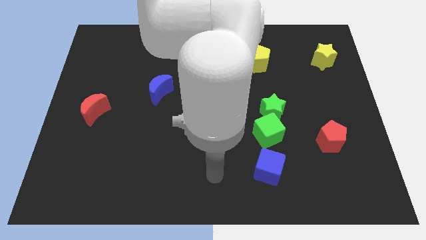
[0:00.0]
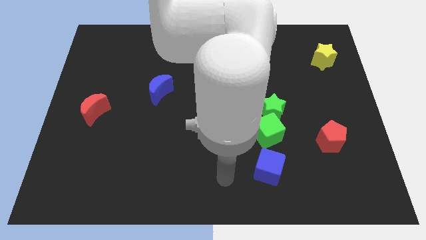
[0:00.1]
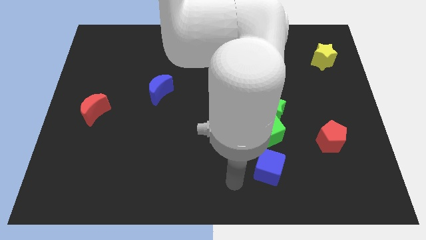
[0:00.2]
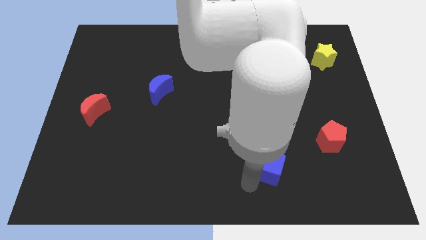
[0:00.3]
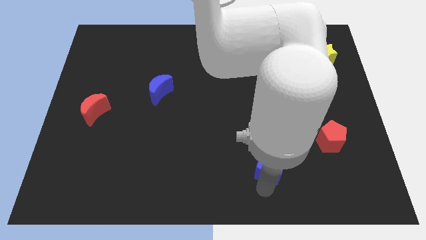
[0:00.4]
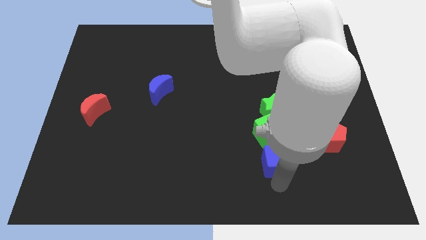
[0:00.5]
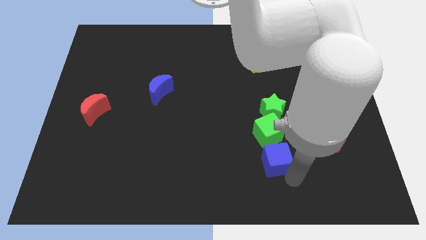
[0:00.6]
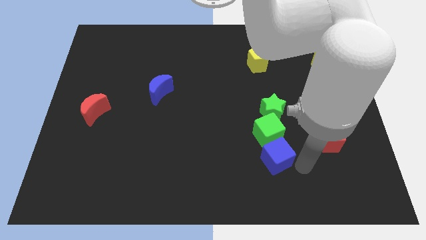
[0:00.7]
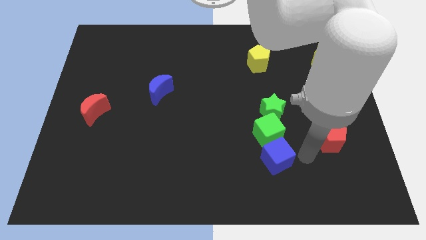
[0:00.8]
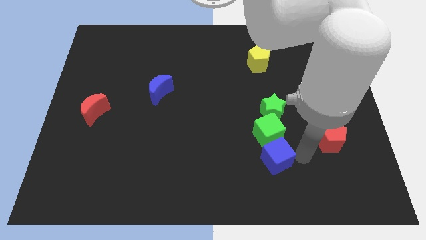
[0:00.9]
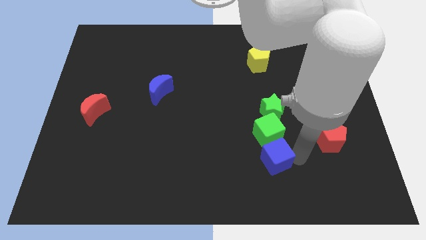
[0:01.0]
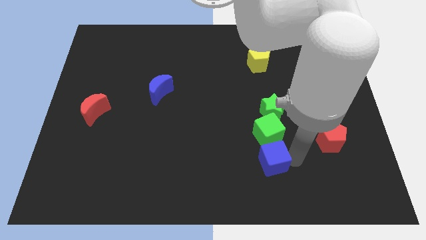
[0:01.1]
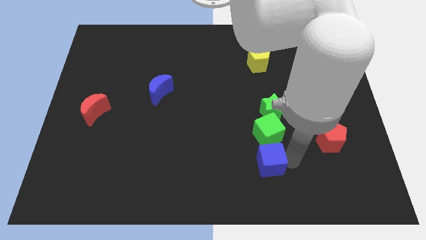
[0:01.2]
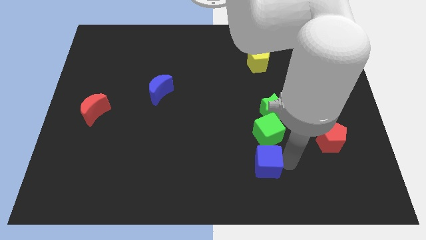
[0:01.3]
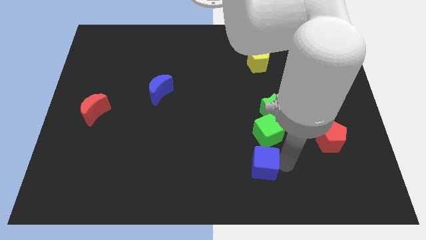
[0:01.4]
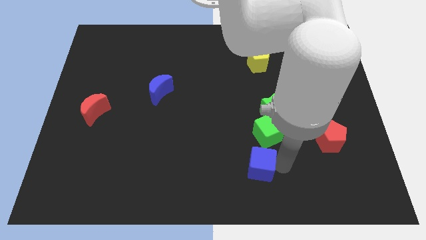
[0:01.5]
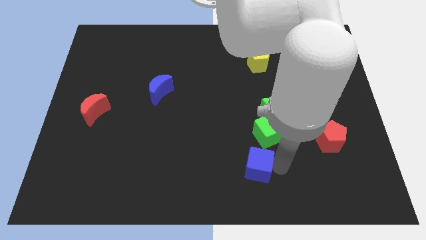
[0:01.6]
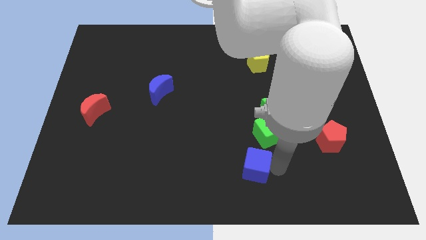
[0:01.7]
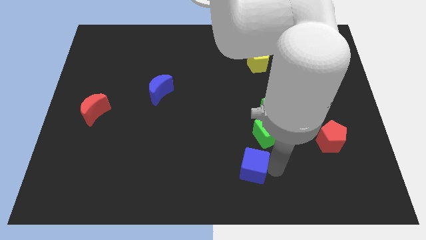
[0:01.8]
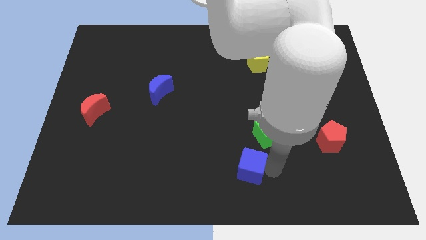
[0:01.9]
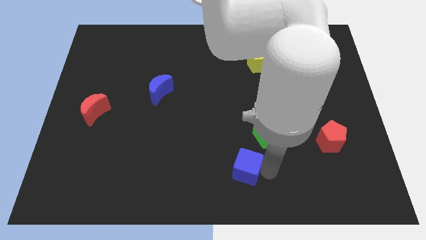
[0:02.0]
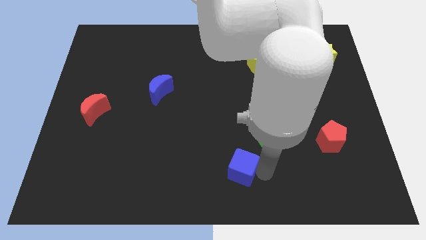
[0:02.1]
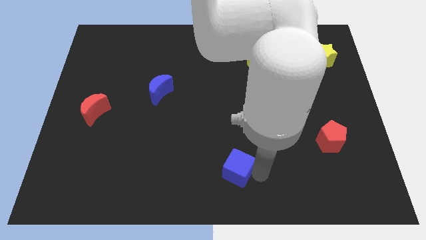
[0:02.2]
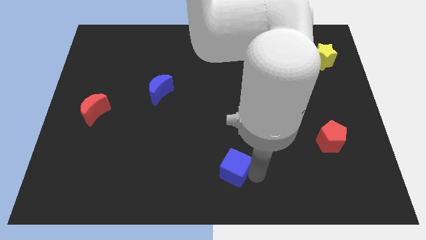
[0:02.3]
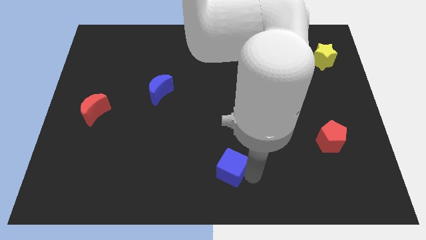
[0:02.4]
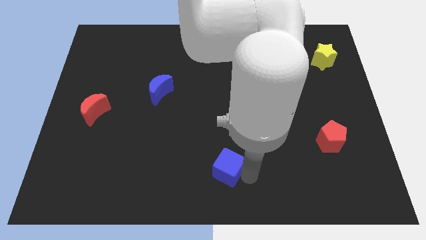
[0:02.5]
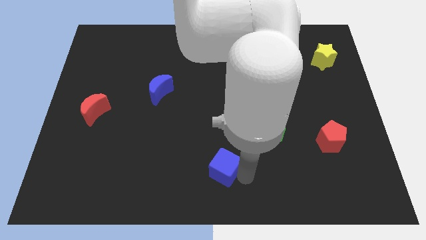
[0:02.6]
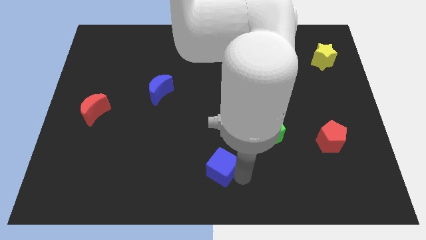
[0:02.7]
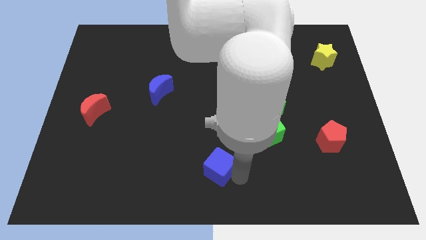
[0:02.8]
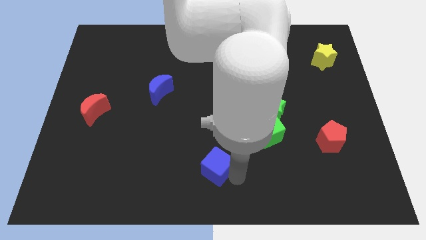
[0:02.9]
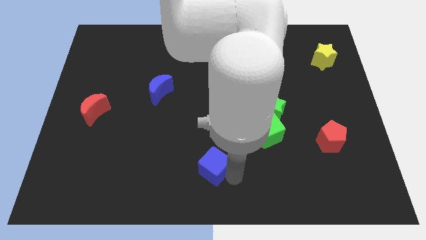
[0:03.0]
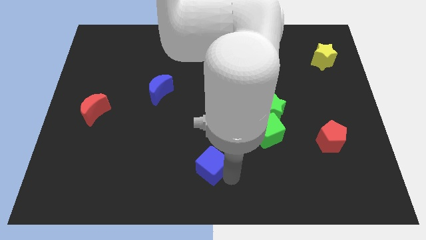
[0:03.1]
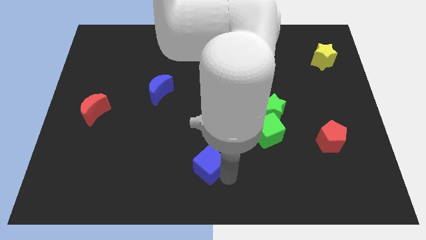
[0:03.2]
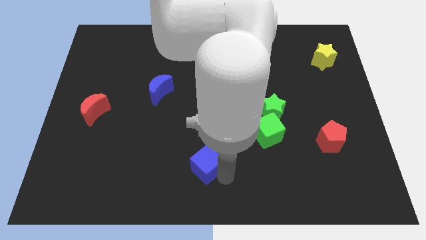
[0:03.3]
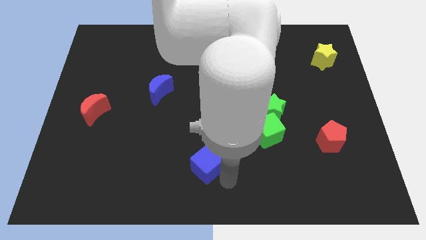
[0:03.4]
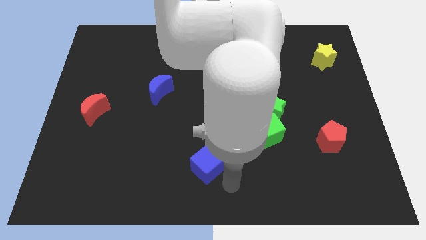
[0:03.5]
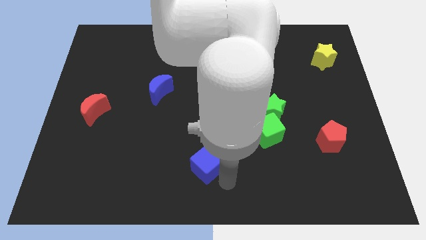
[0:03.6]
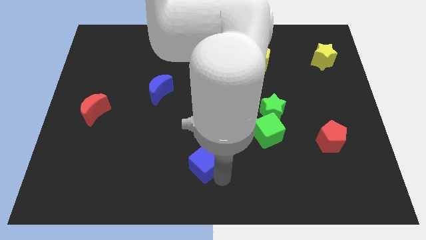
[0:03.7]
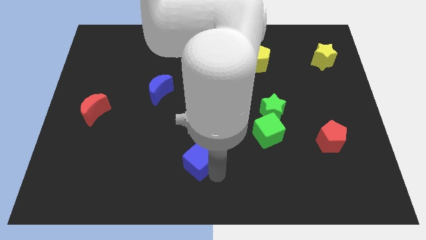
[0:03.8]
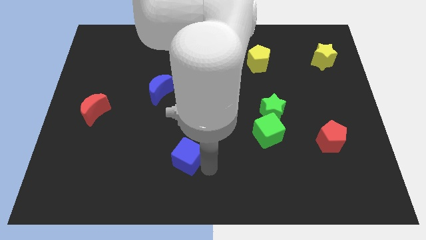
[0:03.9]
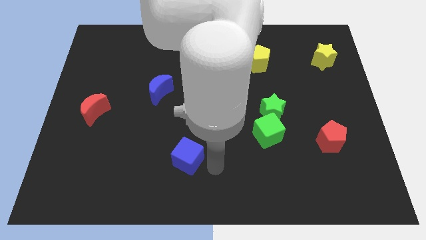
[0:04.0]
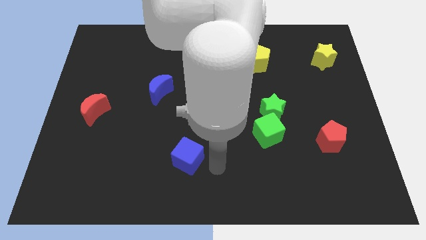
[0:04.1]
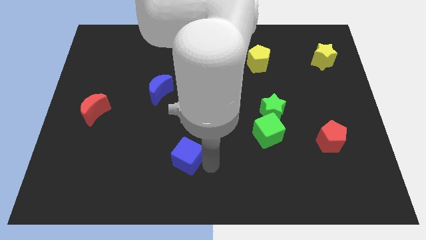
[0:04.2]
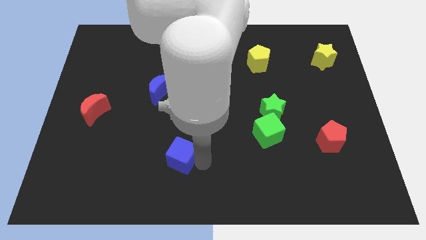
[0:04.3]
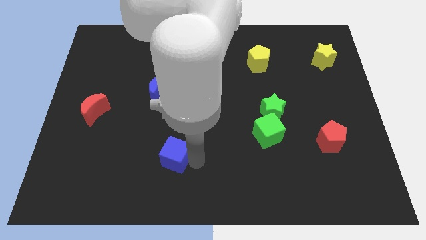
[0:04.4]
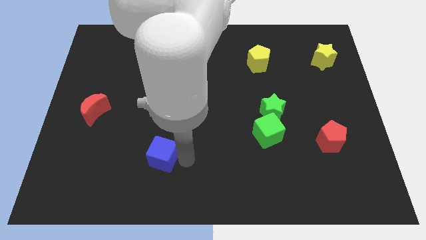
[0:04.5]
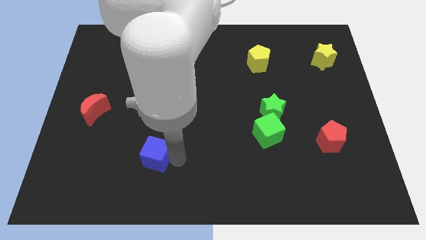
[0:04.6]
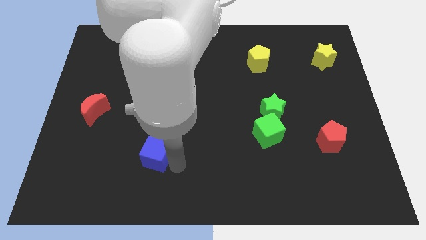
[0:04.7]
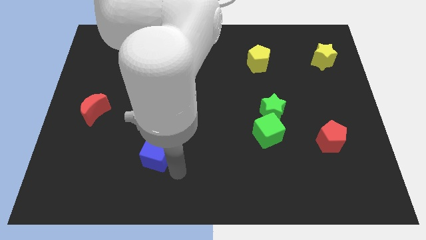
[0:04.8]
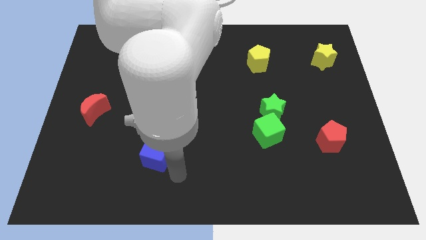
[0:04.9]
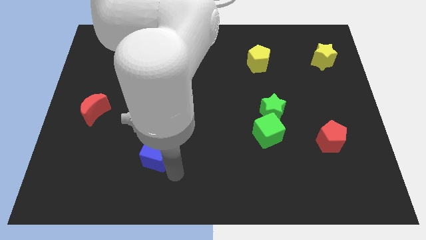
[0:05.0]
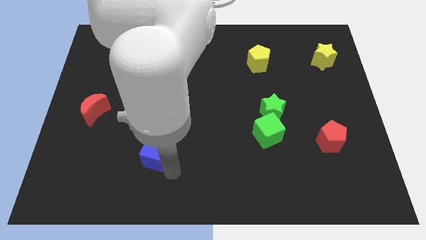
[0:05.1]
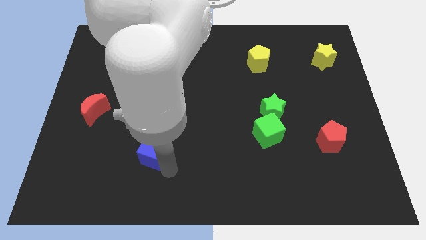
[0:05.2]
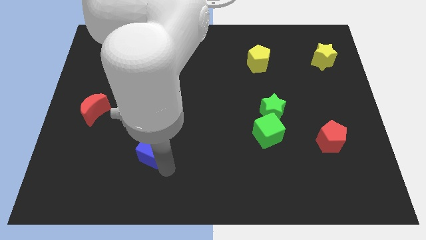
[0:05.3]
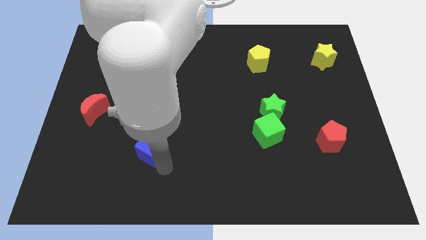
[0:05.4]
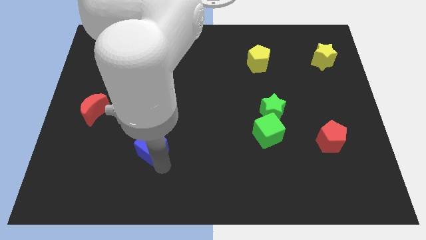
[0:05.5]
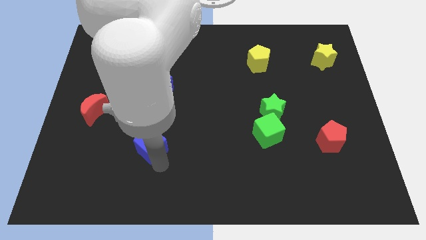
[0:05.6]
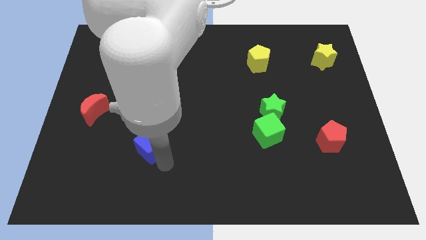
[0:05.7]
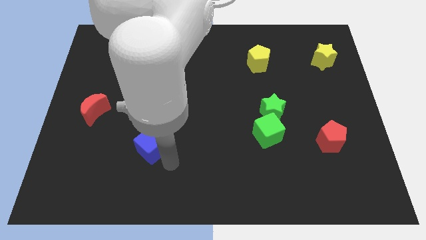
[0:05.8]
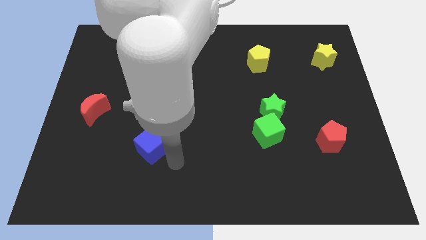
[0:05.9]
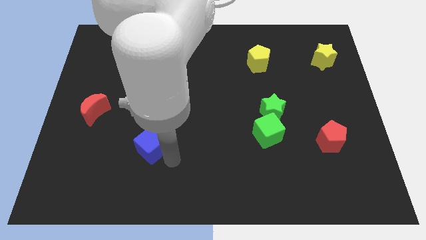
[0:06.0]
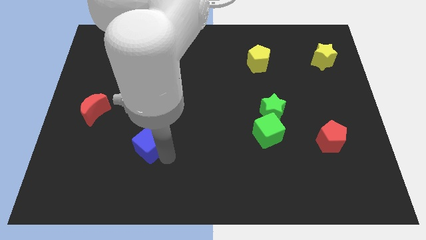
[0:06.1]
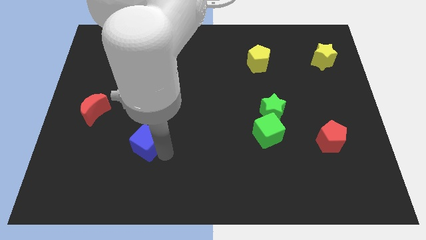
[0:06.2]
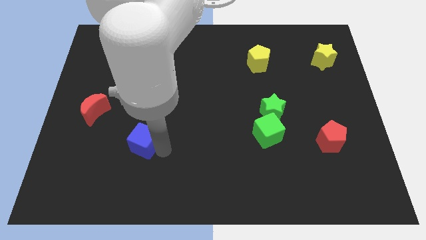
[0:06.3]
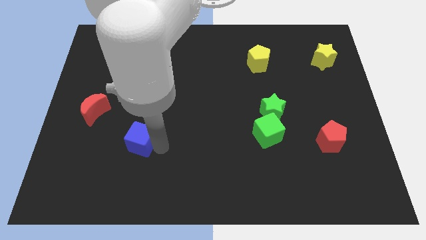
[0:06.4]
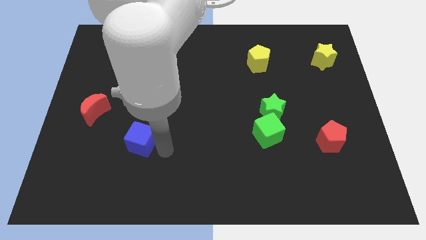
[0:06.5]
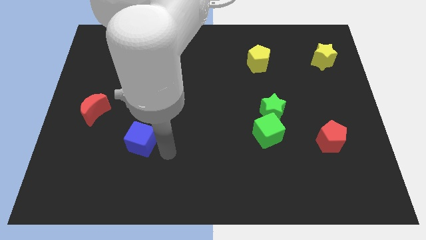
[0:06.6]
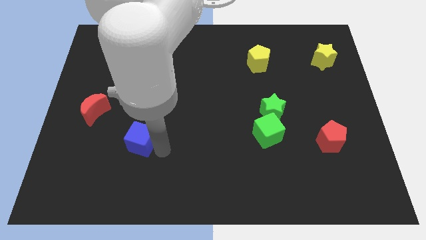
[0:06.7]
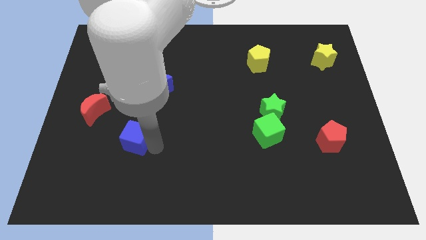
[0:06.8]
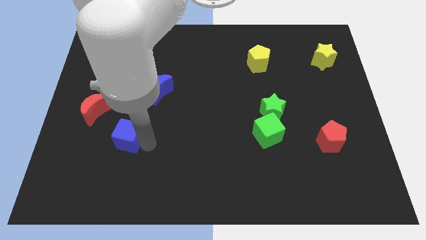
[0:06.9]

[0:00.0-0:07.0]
push the blue cube diagonally down and to the right of the red moon

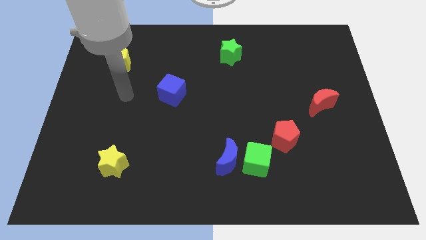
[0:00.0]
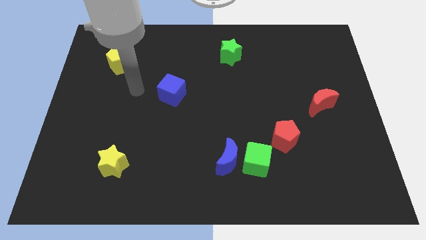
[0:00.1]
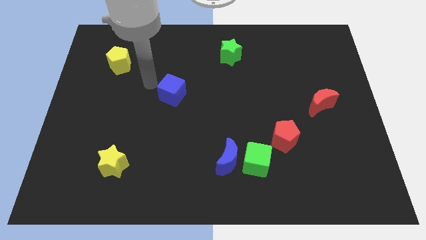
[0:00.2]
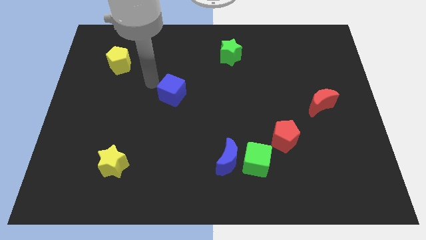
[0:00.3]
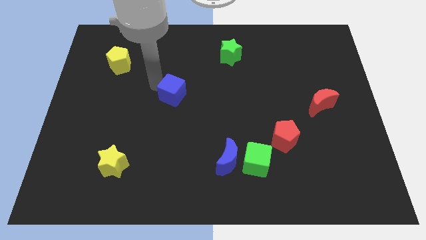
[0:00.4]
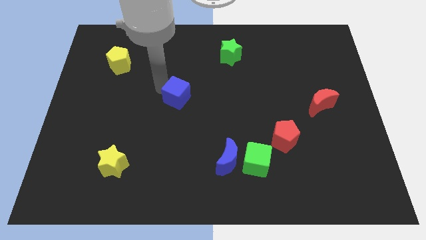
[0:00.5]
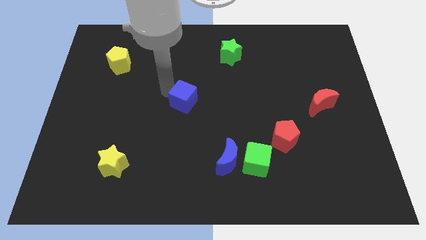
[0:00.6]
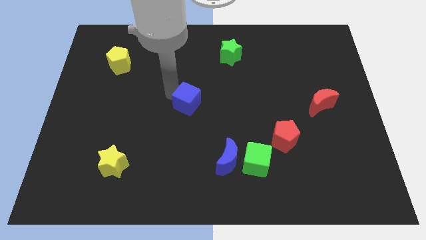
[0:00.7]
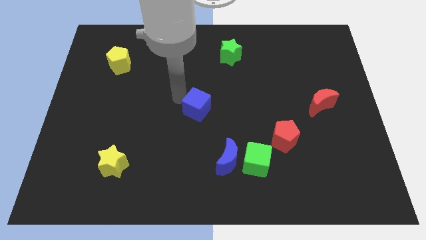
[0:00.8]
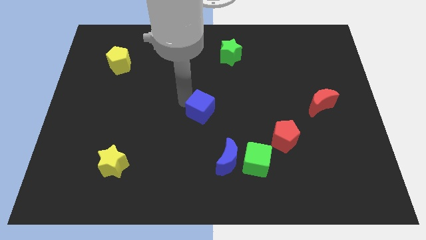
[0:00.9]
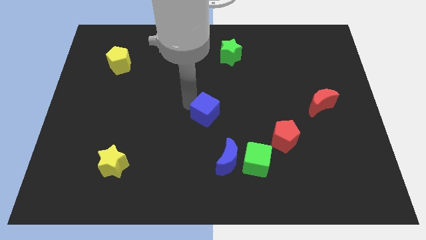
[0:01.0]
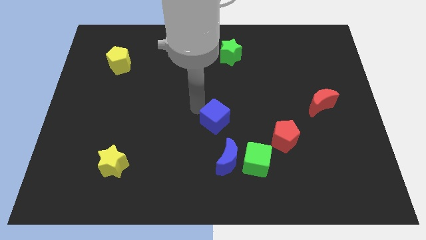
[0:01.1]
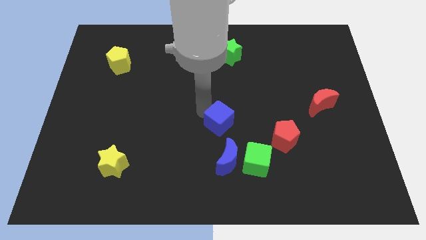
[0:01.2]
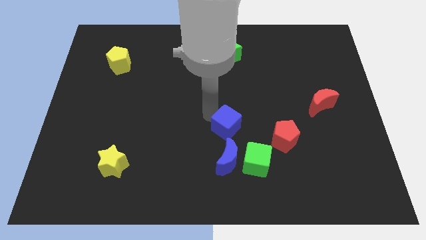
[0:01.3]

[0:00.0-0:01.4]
put the blue cube left of the red pentagon
